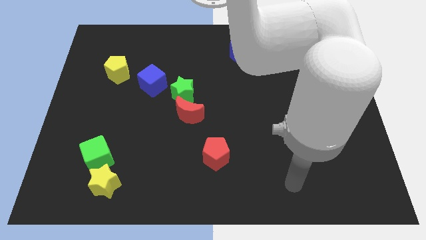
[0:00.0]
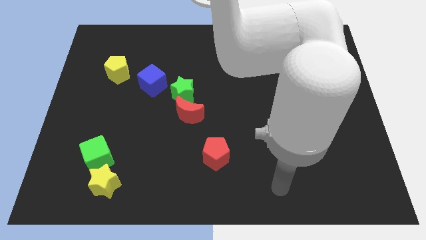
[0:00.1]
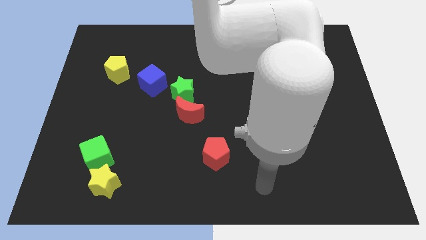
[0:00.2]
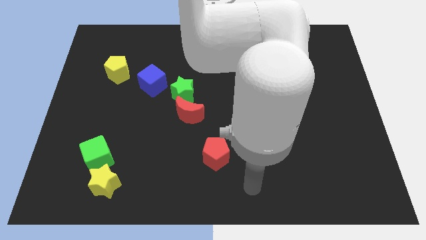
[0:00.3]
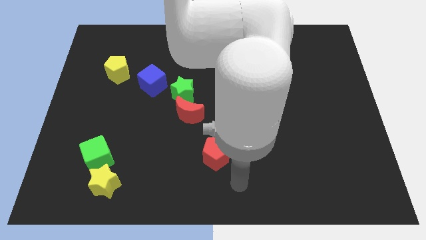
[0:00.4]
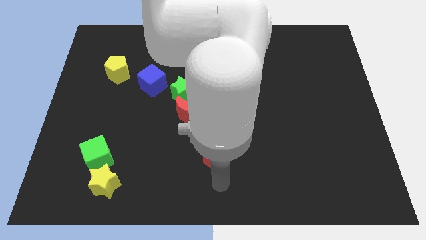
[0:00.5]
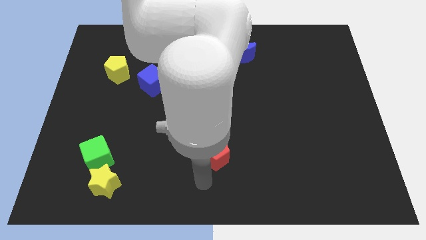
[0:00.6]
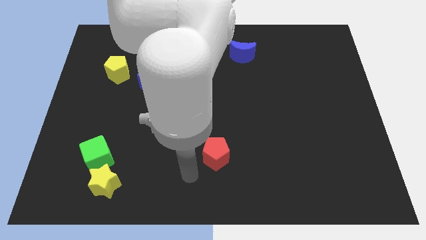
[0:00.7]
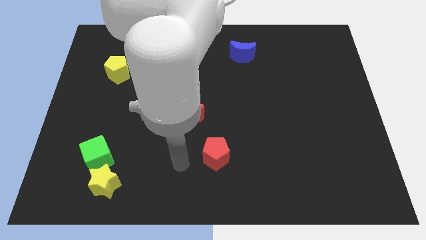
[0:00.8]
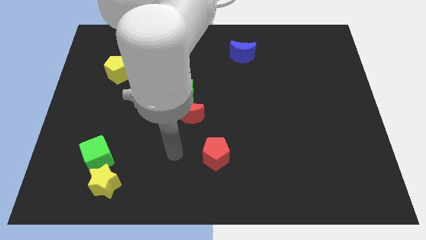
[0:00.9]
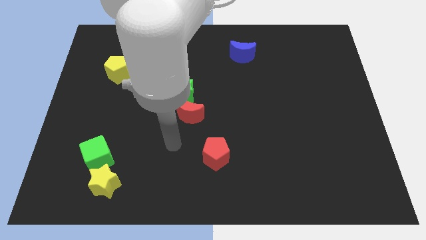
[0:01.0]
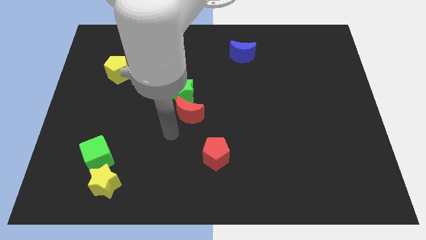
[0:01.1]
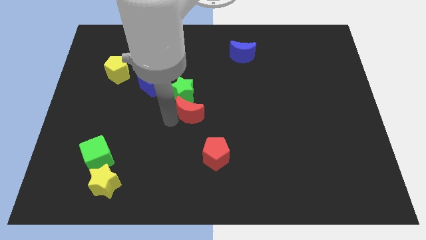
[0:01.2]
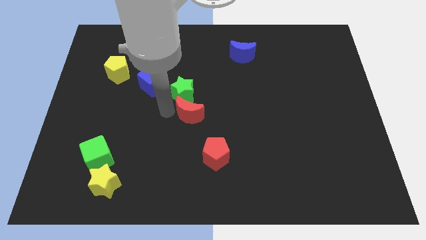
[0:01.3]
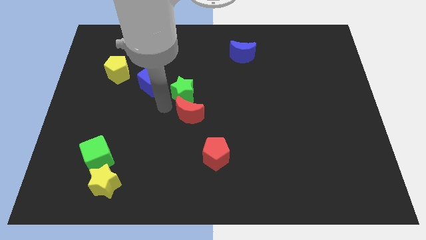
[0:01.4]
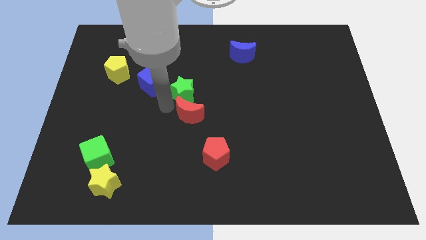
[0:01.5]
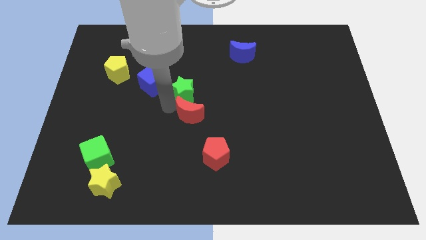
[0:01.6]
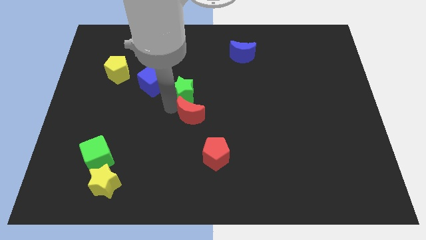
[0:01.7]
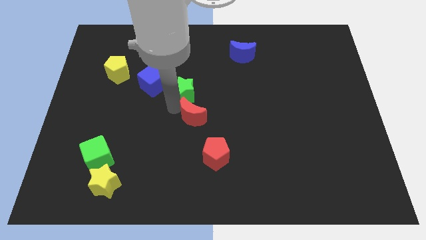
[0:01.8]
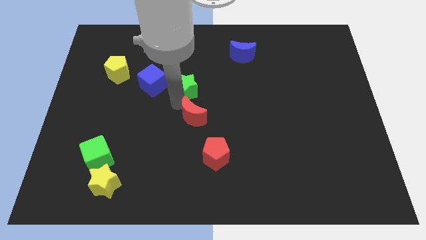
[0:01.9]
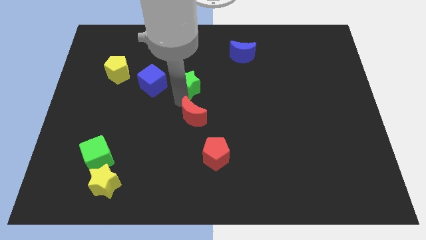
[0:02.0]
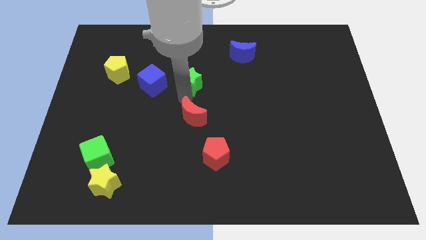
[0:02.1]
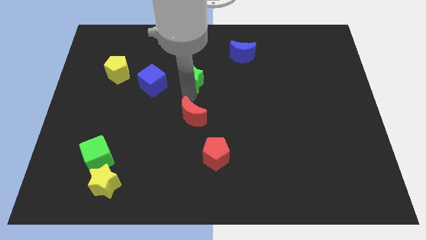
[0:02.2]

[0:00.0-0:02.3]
pull the red moon apart from the green star

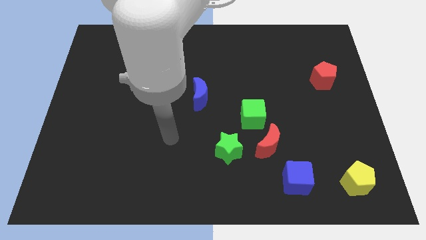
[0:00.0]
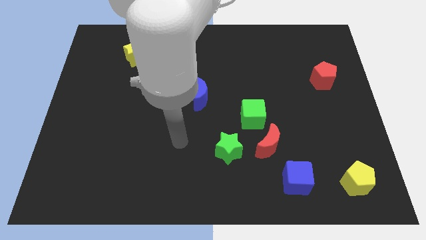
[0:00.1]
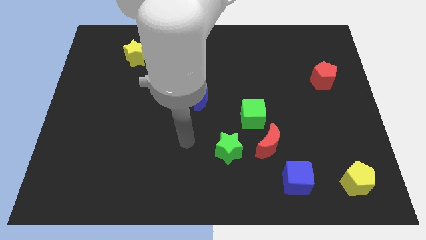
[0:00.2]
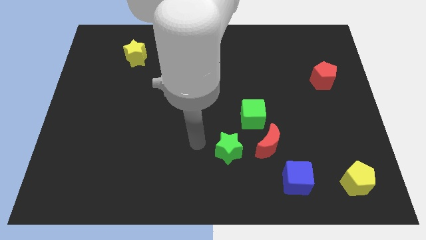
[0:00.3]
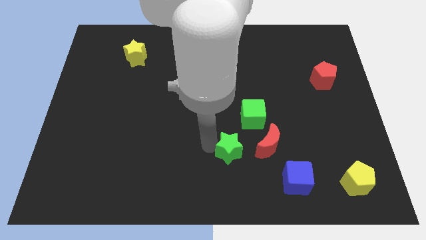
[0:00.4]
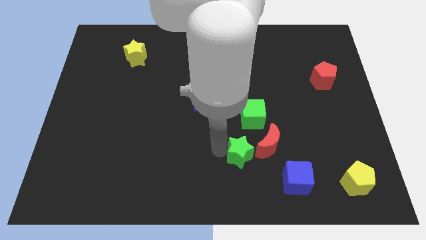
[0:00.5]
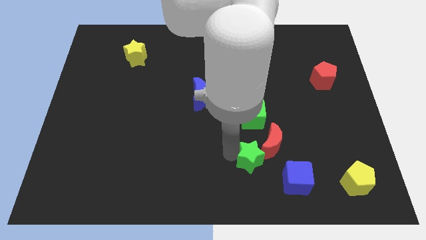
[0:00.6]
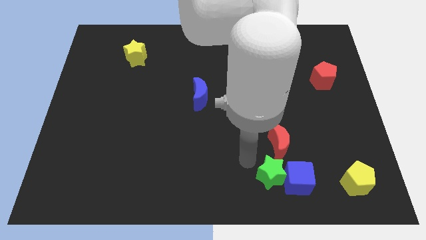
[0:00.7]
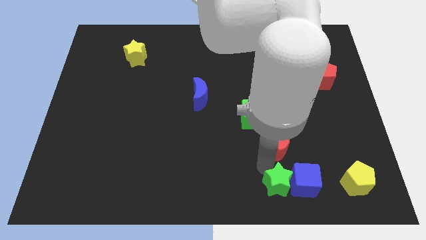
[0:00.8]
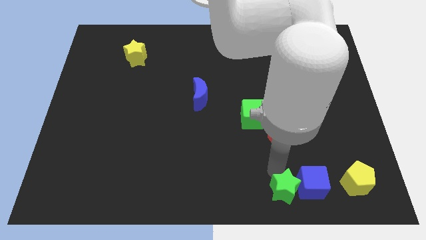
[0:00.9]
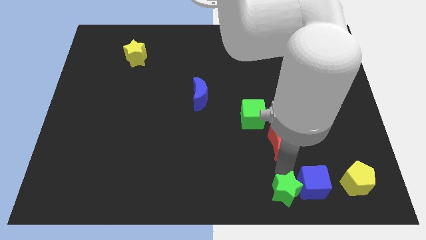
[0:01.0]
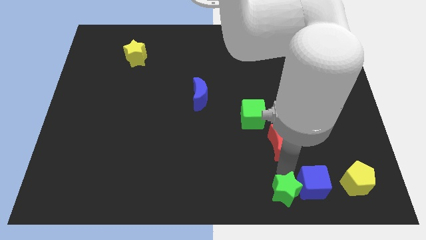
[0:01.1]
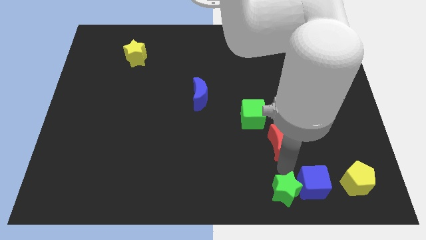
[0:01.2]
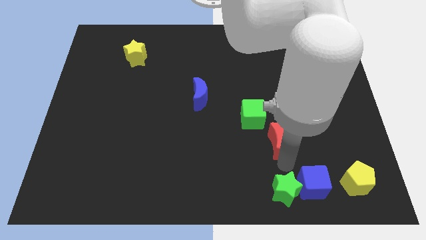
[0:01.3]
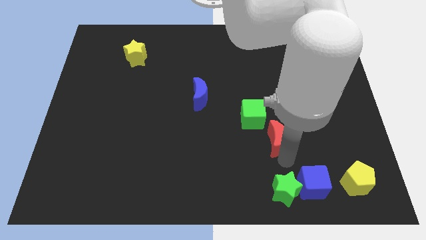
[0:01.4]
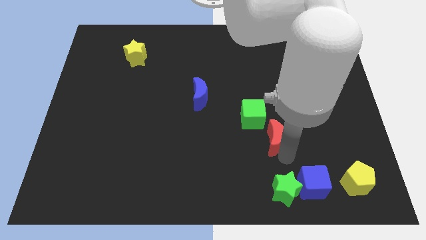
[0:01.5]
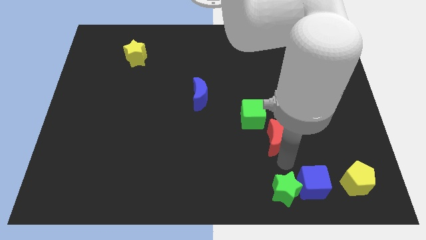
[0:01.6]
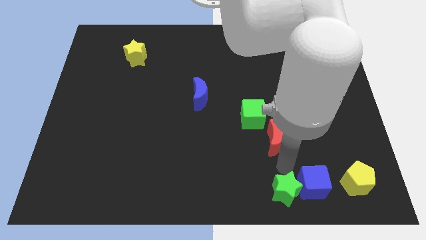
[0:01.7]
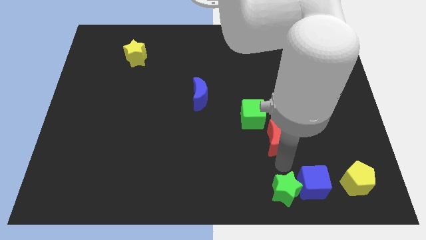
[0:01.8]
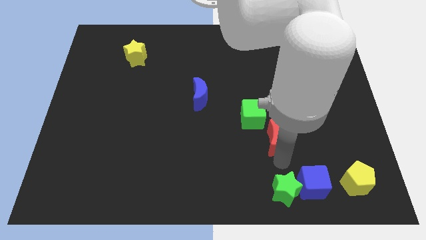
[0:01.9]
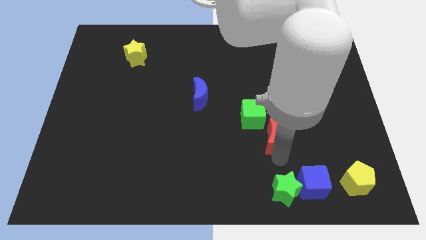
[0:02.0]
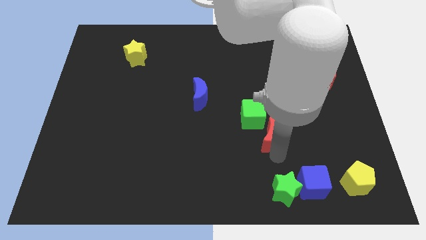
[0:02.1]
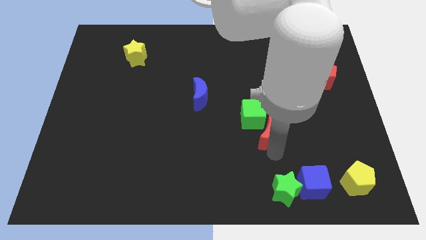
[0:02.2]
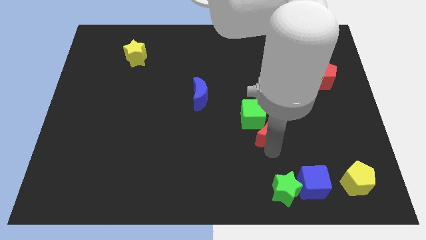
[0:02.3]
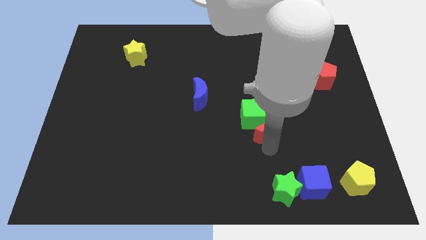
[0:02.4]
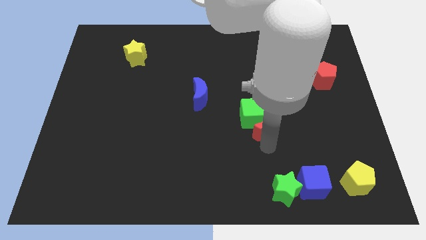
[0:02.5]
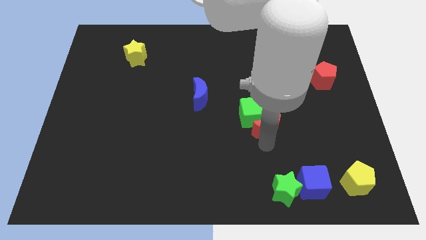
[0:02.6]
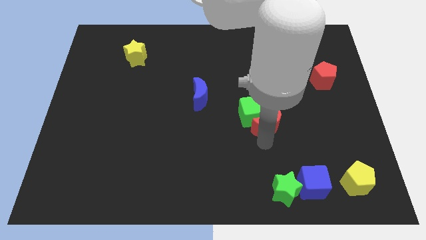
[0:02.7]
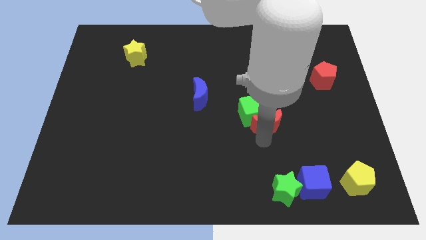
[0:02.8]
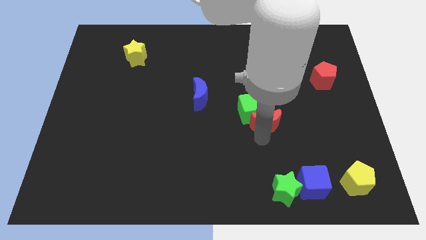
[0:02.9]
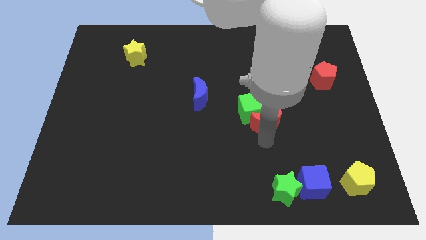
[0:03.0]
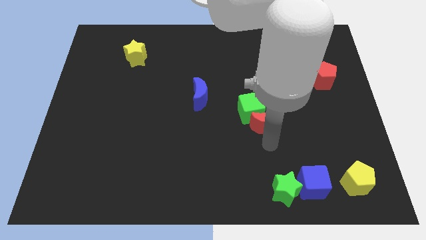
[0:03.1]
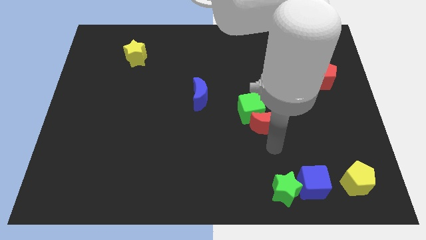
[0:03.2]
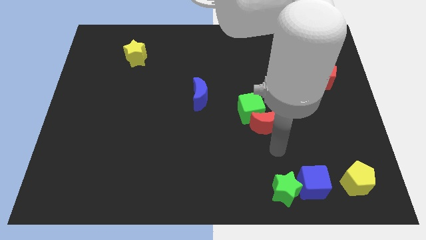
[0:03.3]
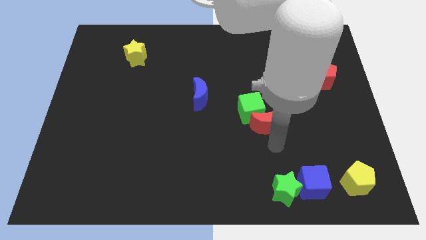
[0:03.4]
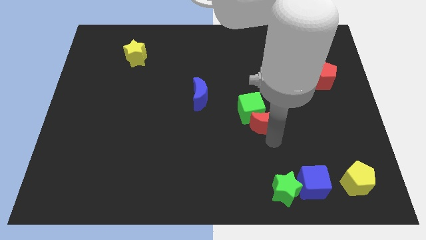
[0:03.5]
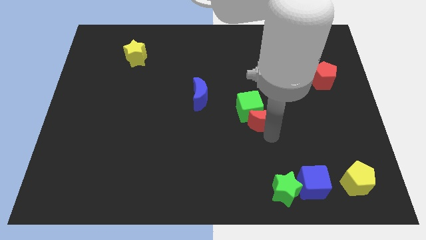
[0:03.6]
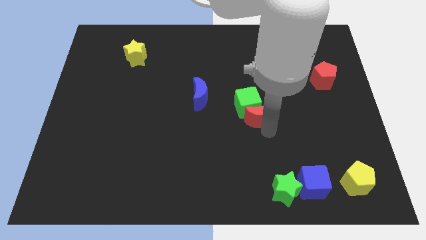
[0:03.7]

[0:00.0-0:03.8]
pull the red moon apart from the green cube, green star, and blue cube

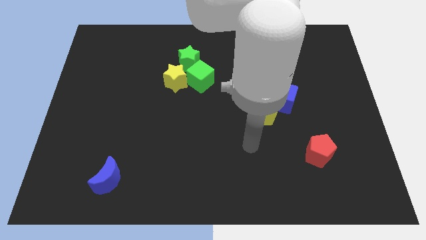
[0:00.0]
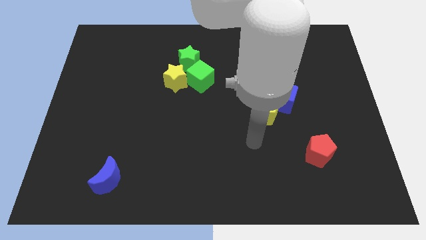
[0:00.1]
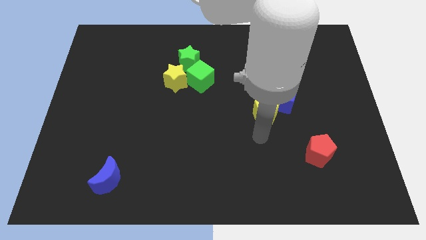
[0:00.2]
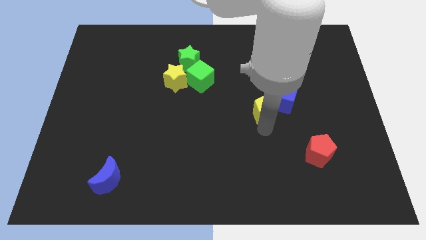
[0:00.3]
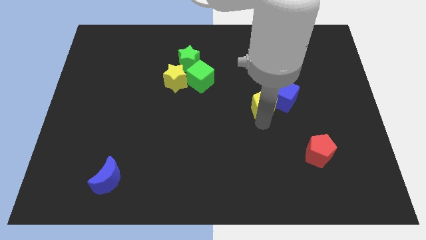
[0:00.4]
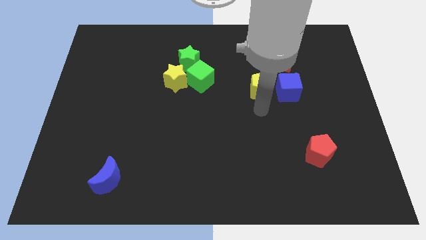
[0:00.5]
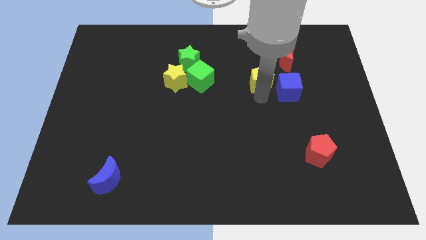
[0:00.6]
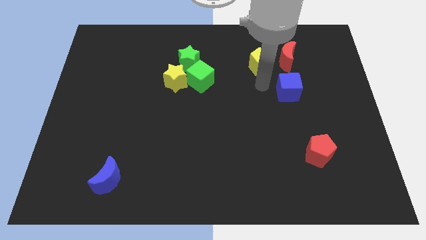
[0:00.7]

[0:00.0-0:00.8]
separate the blue cube from the yellow pentagon

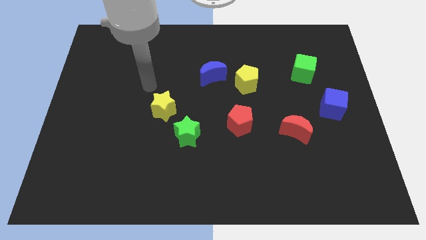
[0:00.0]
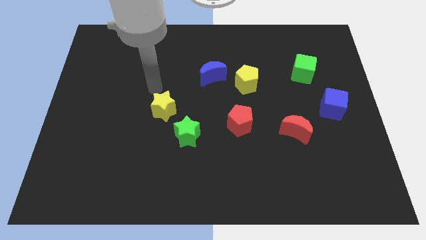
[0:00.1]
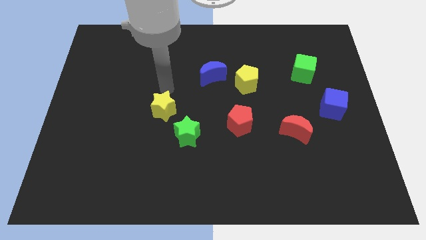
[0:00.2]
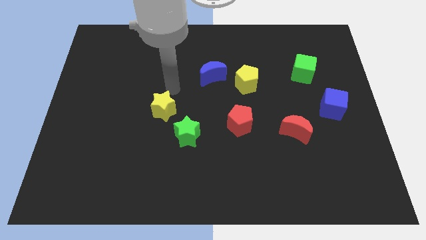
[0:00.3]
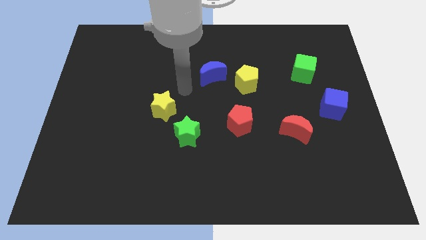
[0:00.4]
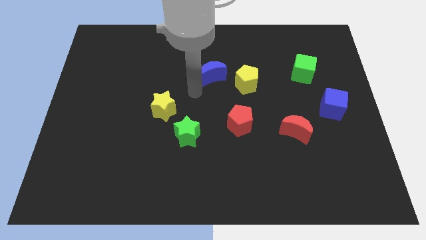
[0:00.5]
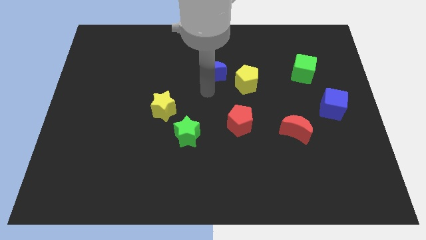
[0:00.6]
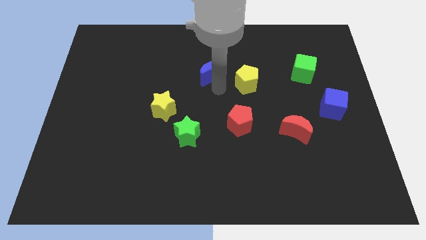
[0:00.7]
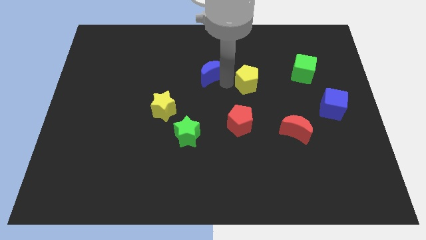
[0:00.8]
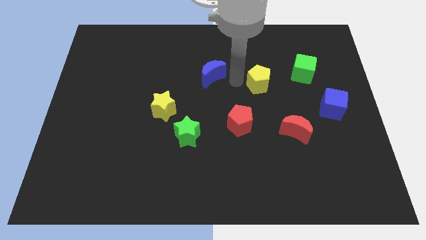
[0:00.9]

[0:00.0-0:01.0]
pull the blue moon apart from the yellow pentagon

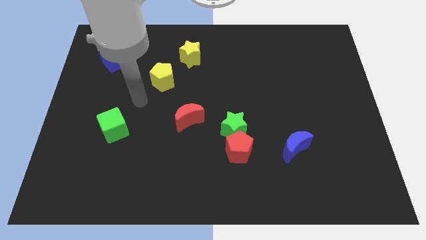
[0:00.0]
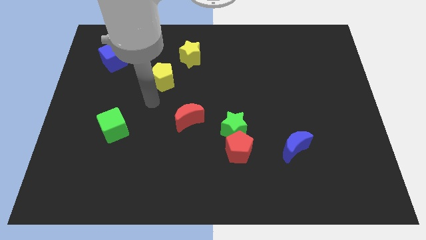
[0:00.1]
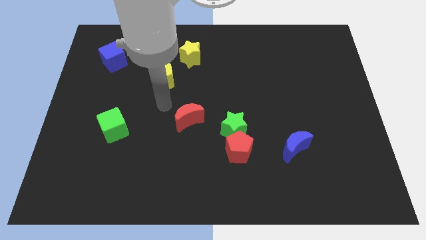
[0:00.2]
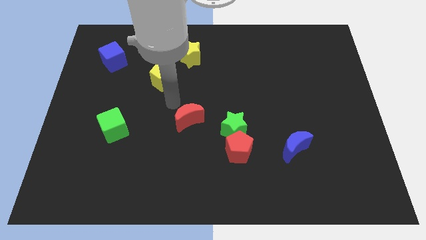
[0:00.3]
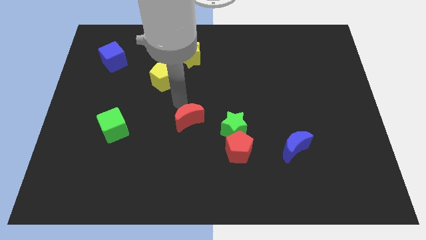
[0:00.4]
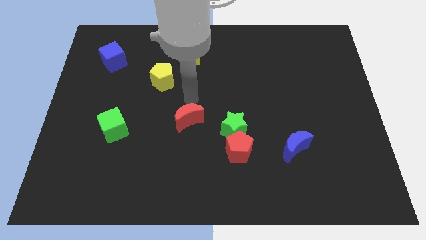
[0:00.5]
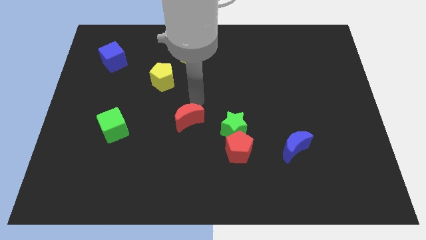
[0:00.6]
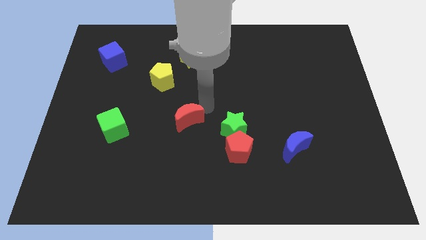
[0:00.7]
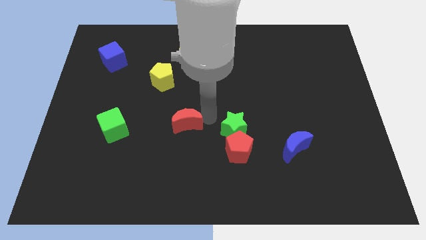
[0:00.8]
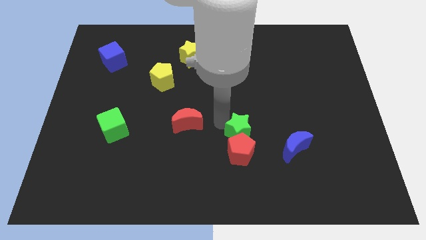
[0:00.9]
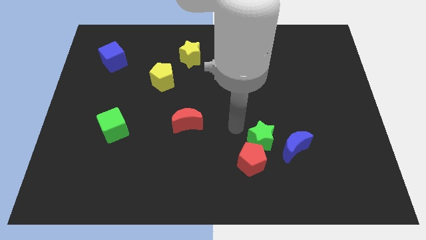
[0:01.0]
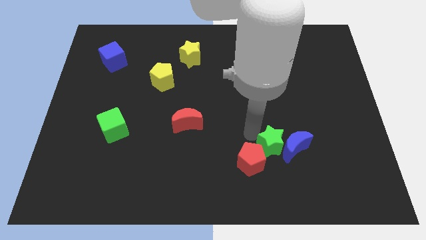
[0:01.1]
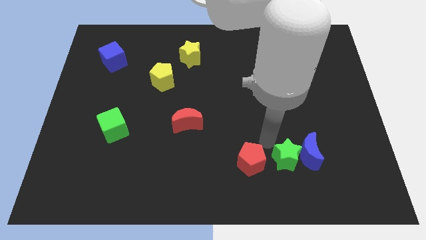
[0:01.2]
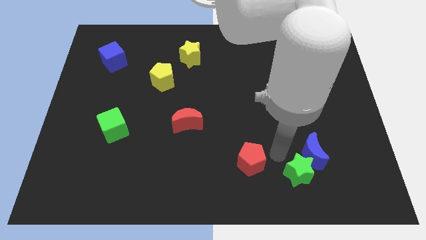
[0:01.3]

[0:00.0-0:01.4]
separate the red pentagon from the green star
